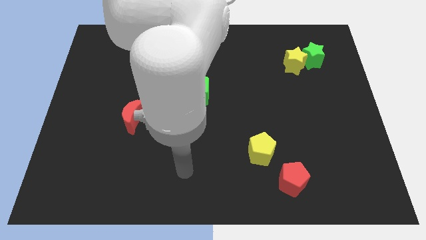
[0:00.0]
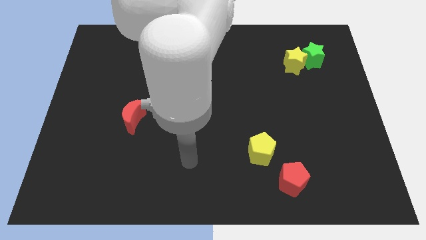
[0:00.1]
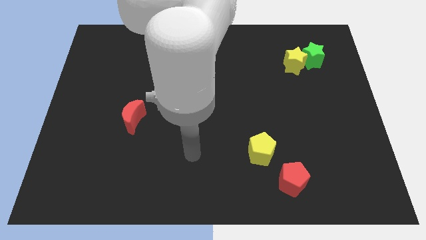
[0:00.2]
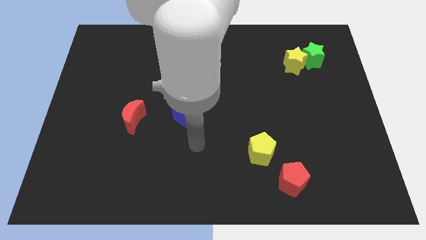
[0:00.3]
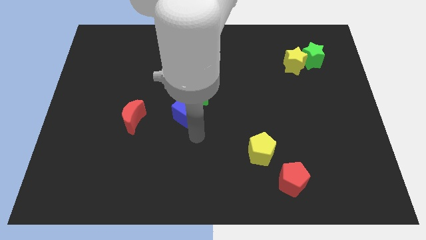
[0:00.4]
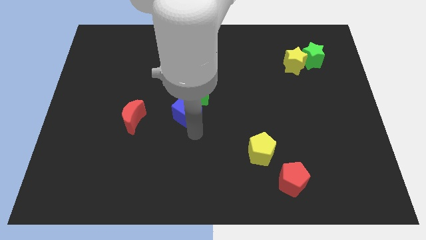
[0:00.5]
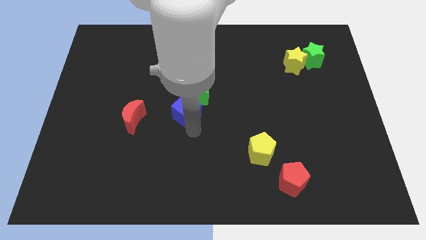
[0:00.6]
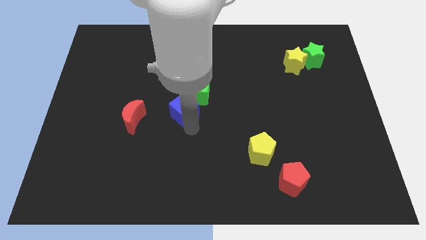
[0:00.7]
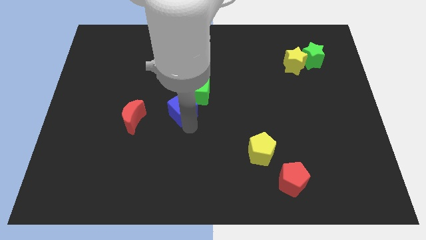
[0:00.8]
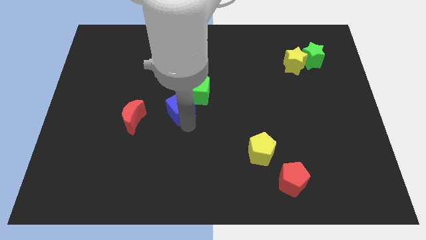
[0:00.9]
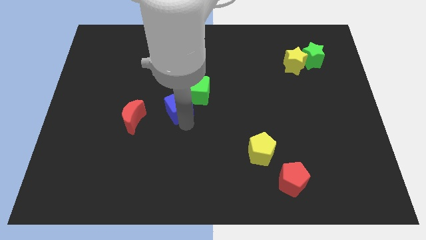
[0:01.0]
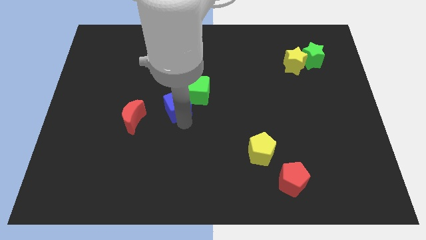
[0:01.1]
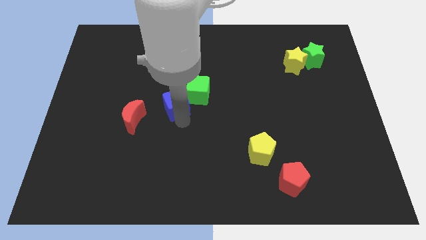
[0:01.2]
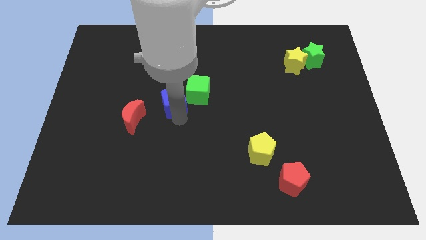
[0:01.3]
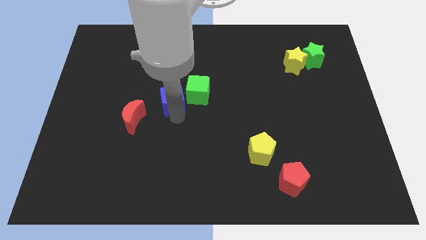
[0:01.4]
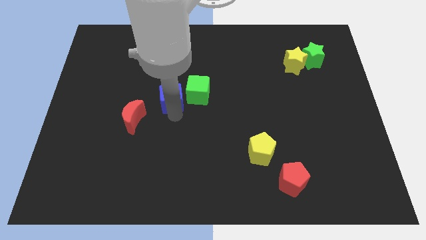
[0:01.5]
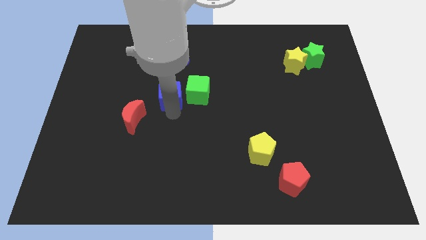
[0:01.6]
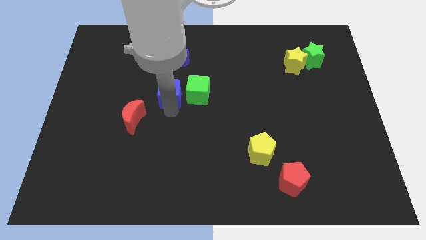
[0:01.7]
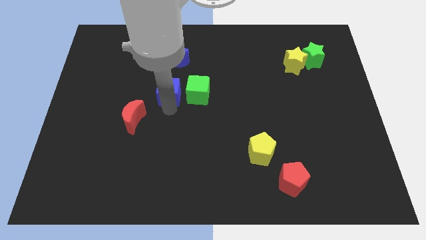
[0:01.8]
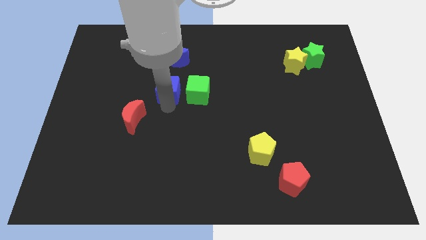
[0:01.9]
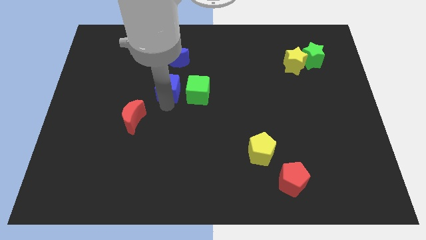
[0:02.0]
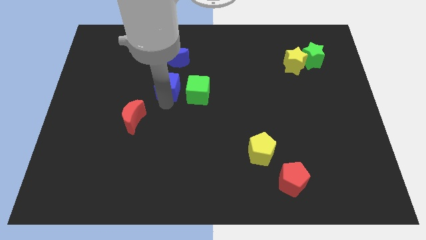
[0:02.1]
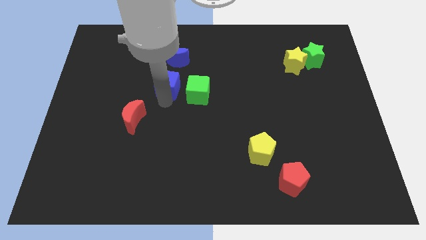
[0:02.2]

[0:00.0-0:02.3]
slide the blue cube slightly up

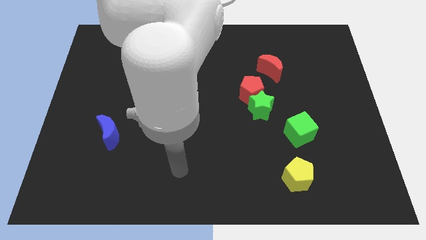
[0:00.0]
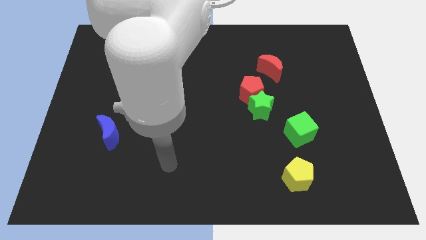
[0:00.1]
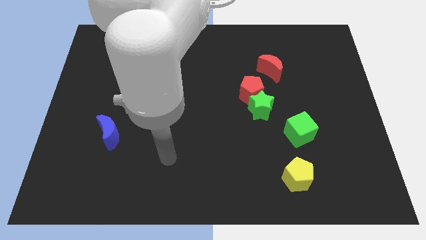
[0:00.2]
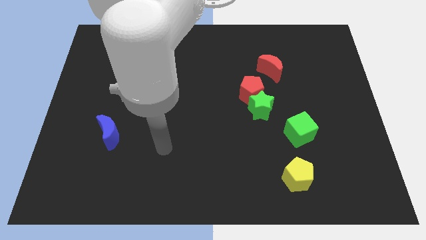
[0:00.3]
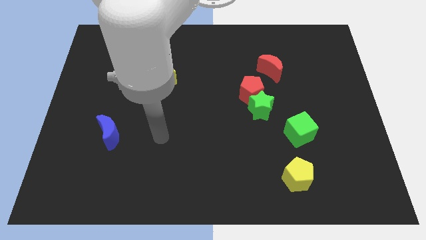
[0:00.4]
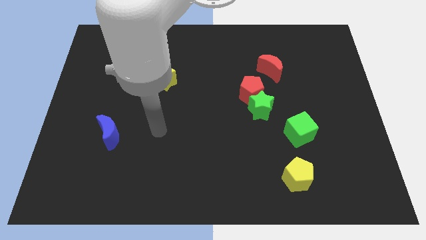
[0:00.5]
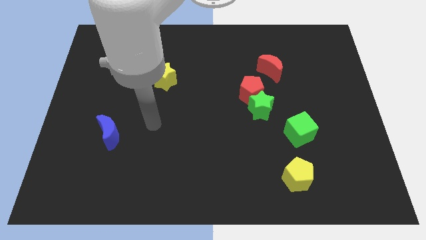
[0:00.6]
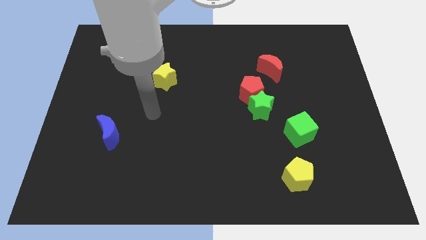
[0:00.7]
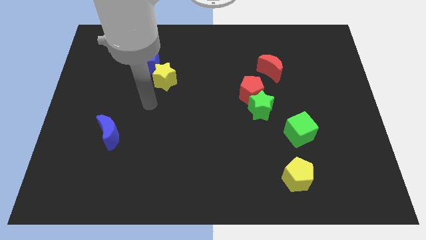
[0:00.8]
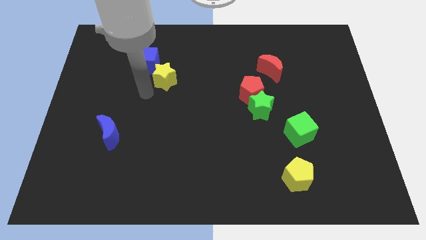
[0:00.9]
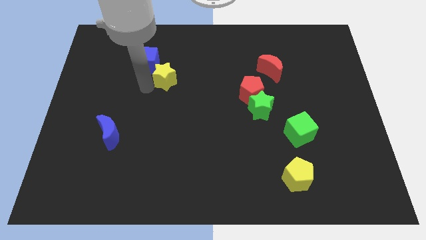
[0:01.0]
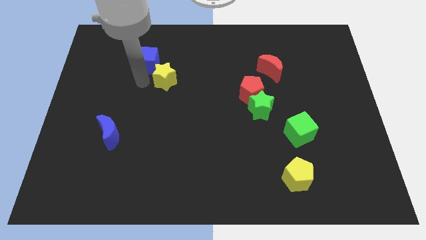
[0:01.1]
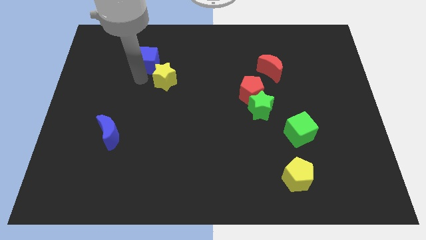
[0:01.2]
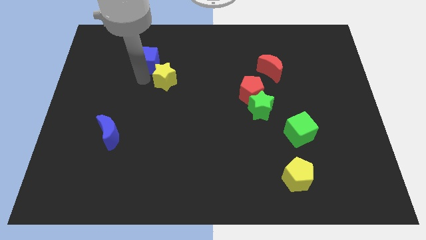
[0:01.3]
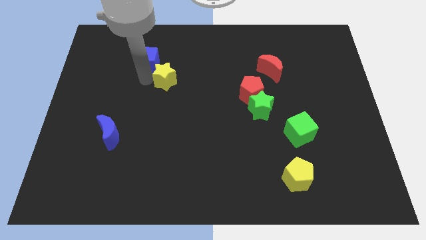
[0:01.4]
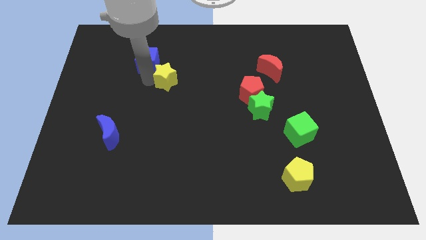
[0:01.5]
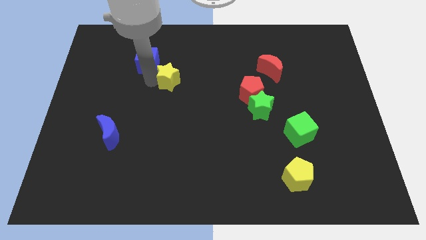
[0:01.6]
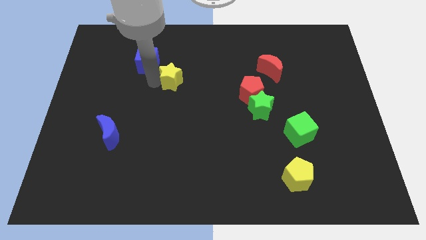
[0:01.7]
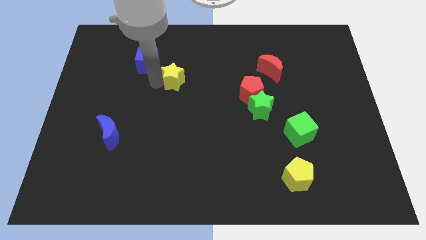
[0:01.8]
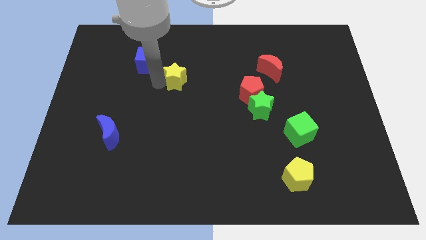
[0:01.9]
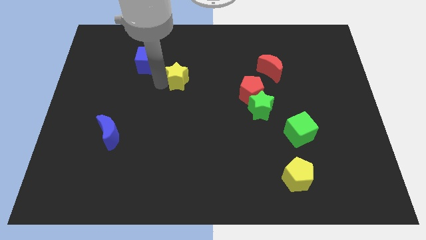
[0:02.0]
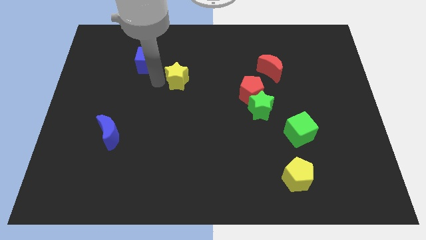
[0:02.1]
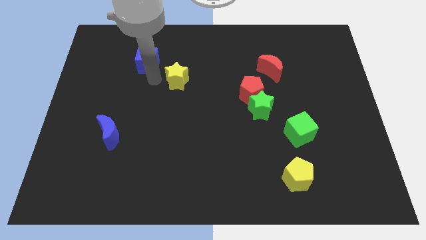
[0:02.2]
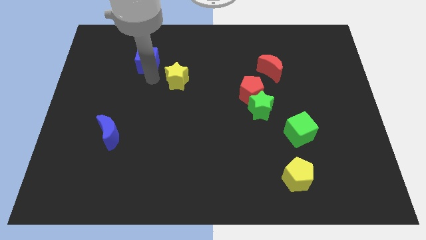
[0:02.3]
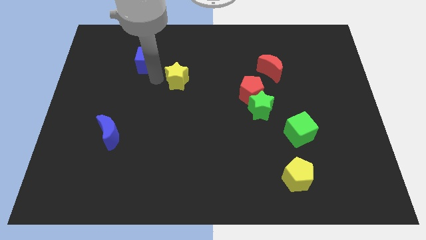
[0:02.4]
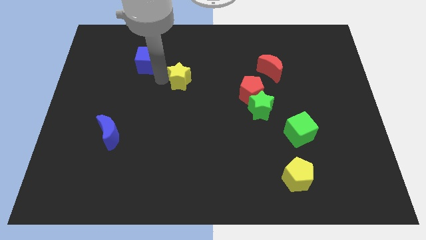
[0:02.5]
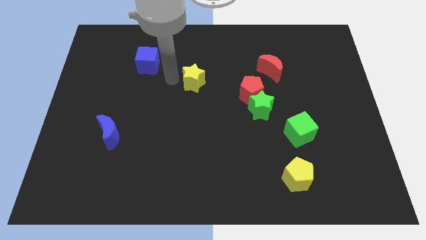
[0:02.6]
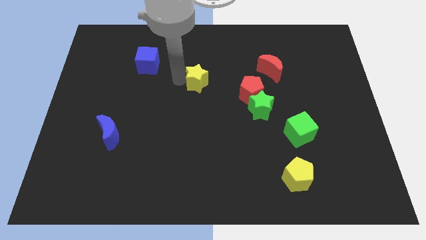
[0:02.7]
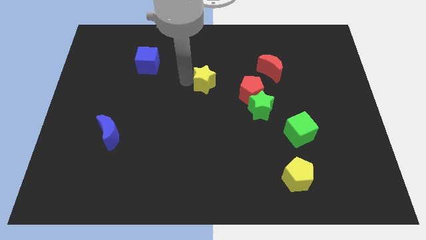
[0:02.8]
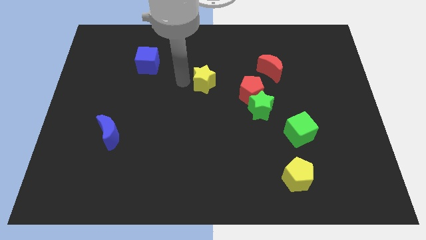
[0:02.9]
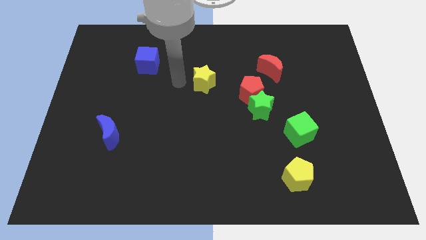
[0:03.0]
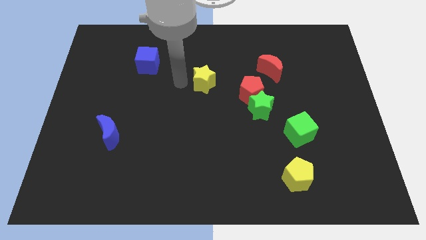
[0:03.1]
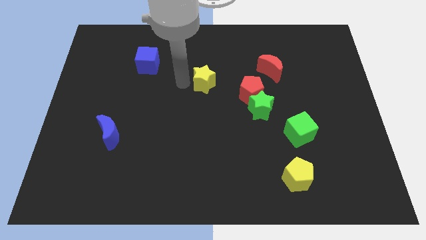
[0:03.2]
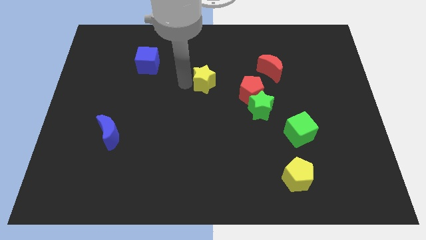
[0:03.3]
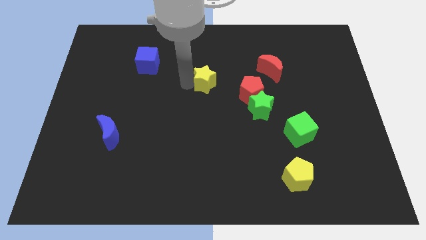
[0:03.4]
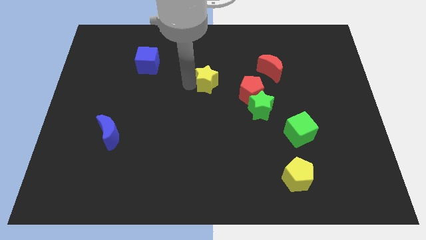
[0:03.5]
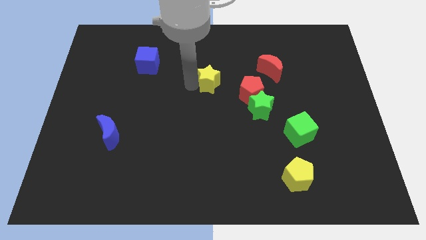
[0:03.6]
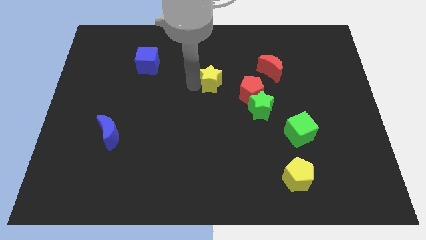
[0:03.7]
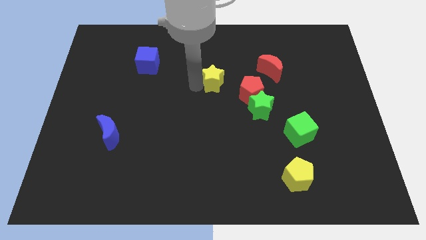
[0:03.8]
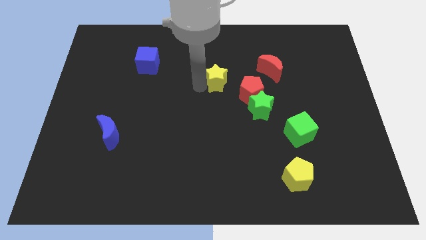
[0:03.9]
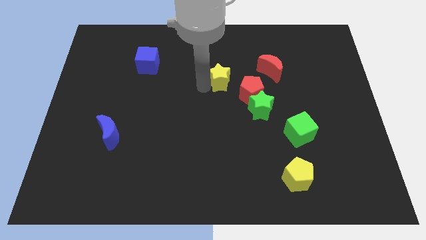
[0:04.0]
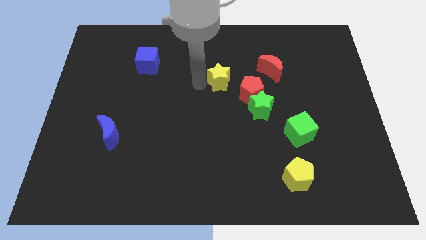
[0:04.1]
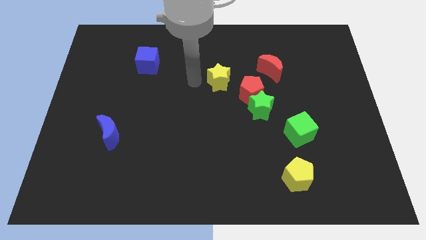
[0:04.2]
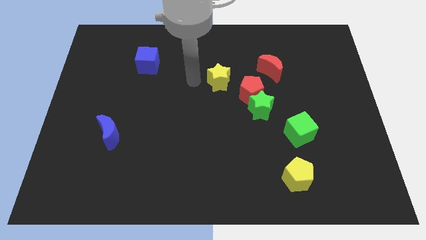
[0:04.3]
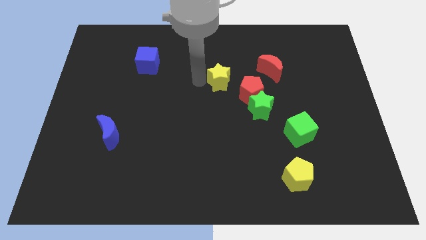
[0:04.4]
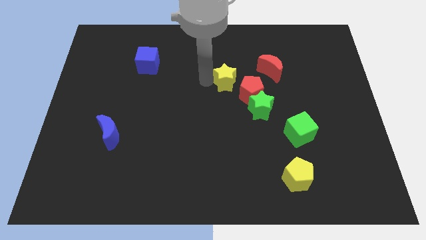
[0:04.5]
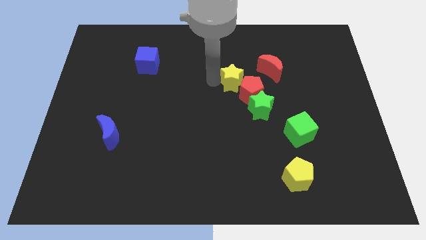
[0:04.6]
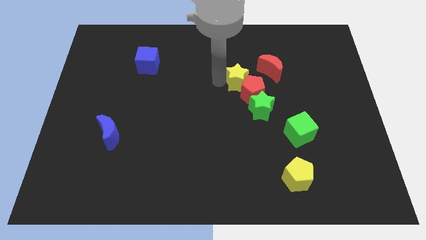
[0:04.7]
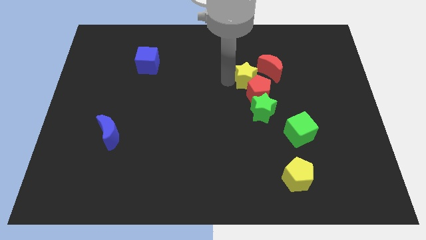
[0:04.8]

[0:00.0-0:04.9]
slide the yellow star to the right

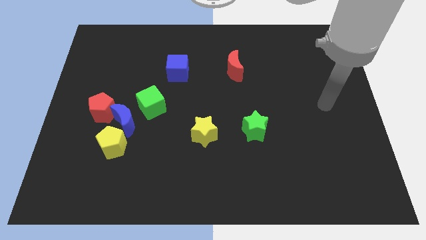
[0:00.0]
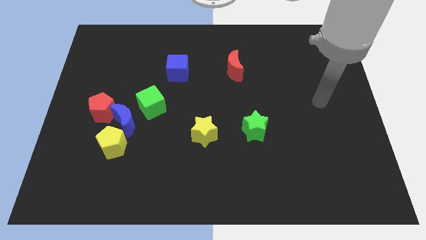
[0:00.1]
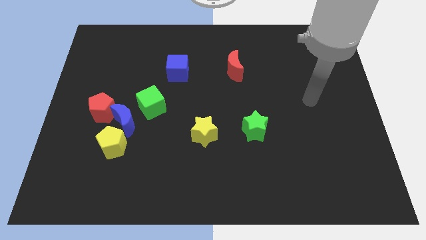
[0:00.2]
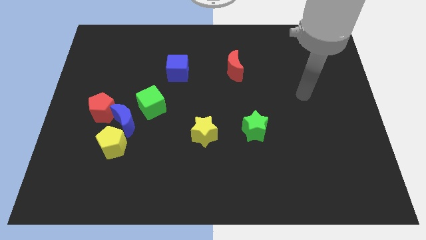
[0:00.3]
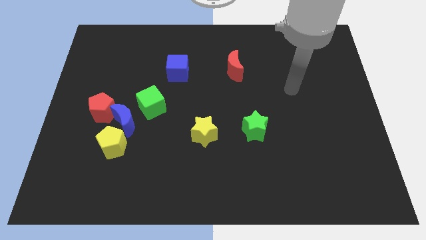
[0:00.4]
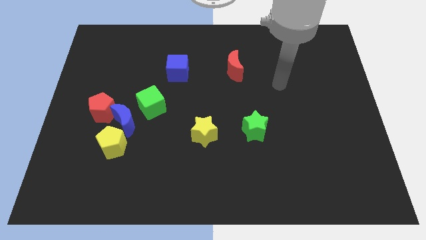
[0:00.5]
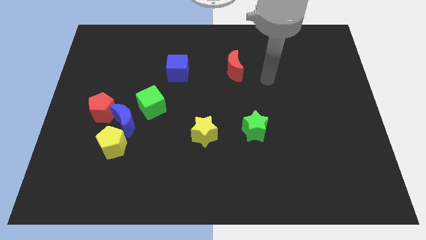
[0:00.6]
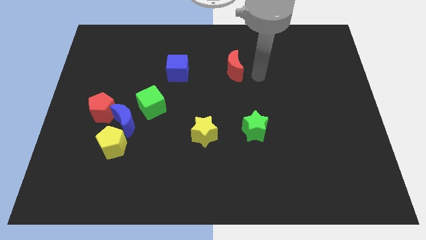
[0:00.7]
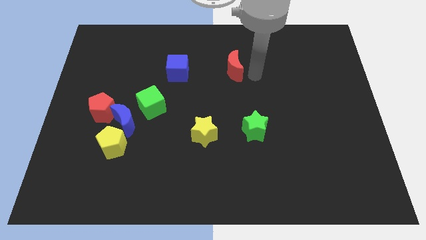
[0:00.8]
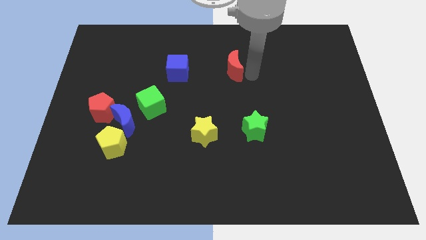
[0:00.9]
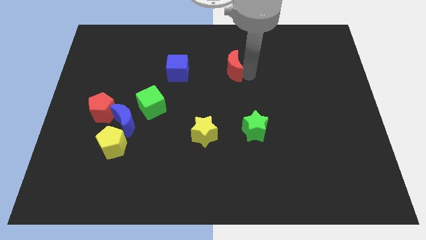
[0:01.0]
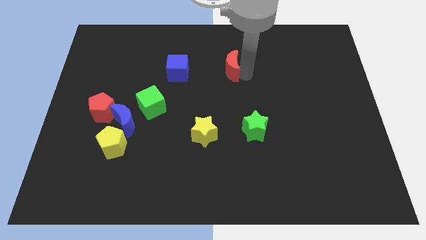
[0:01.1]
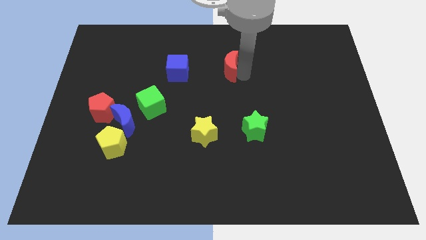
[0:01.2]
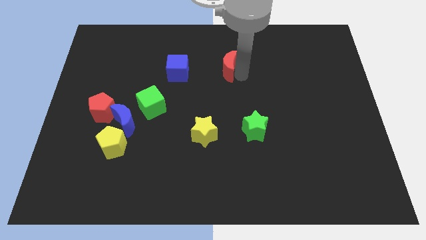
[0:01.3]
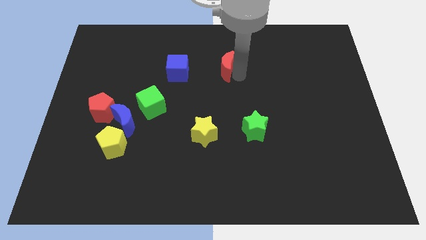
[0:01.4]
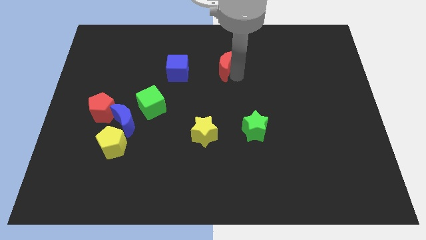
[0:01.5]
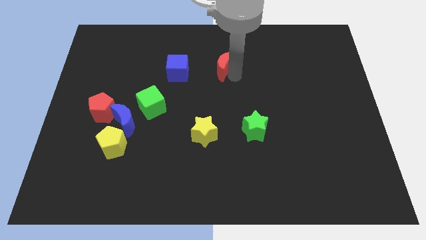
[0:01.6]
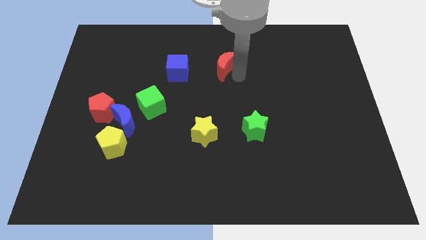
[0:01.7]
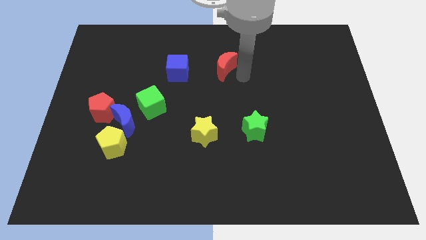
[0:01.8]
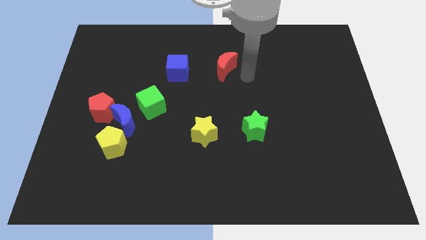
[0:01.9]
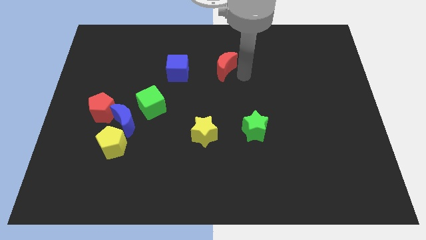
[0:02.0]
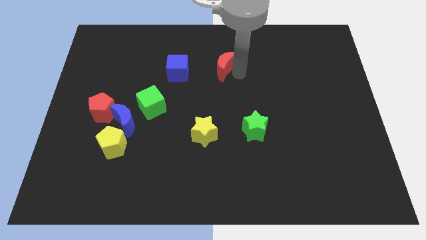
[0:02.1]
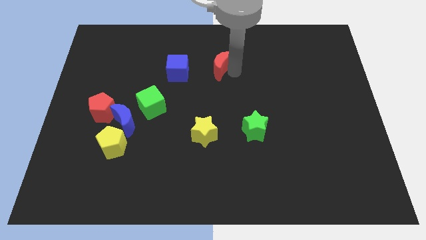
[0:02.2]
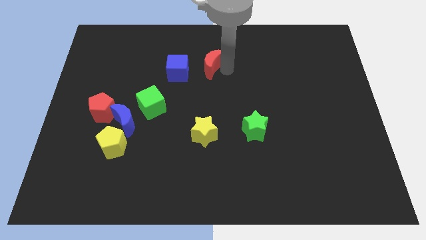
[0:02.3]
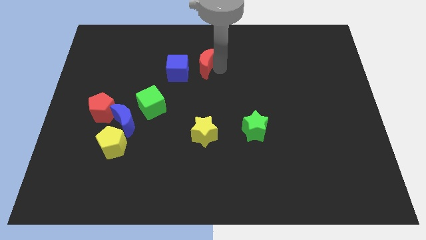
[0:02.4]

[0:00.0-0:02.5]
move the red moon somewhat left
